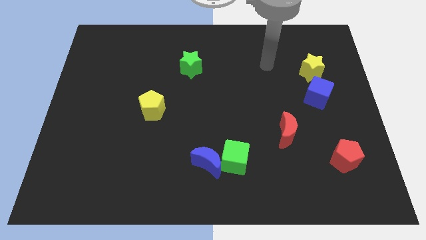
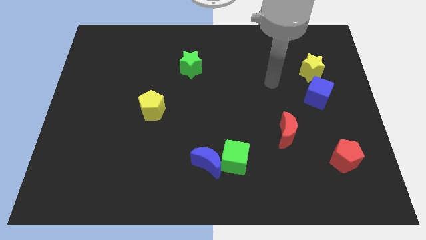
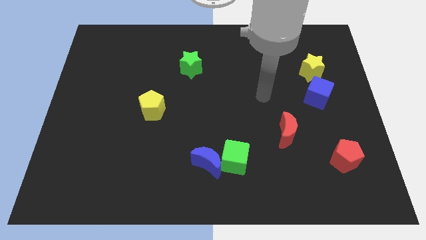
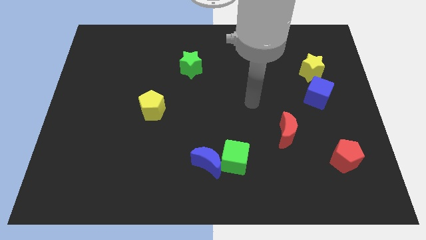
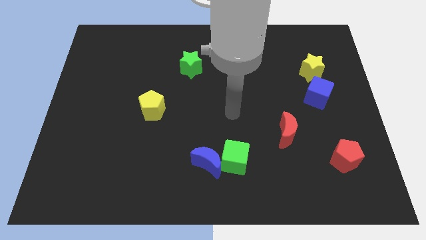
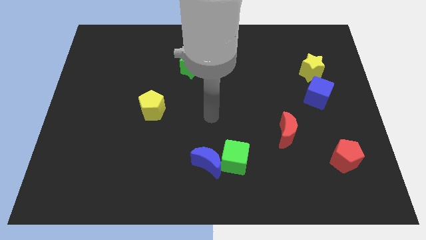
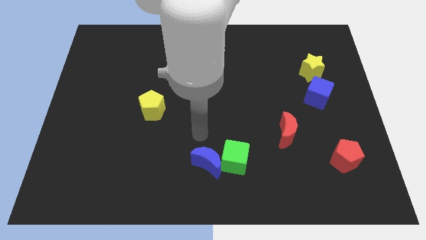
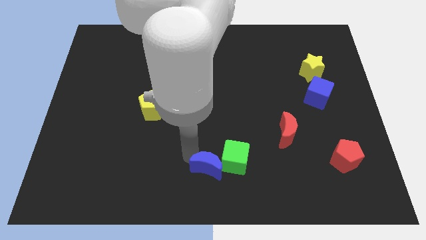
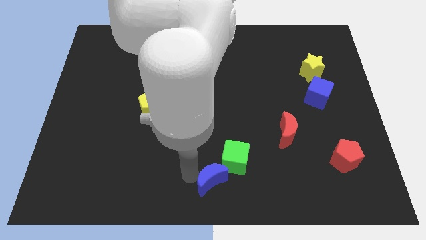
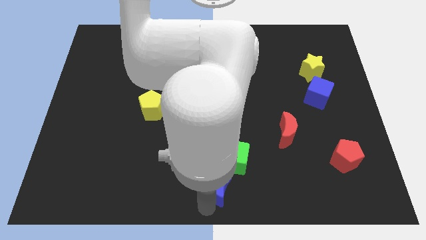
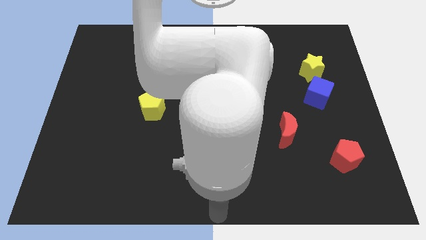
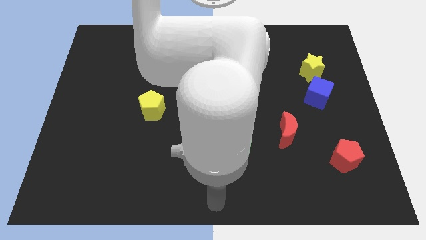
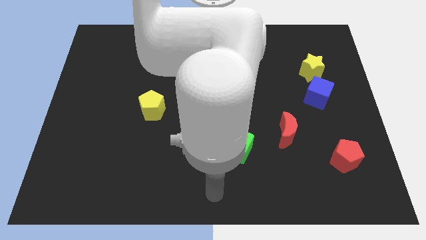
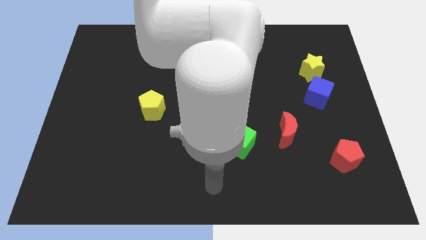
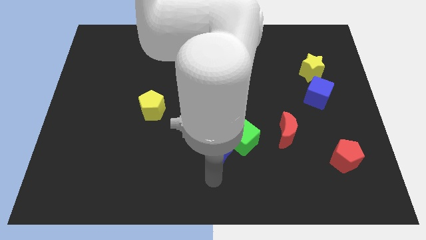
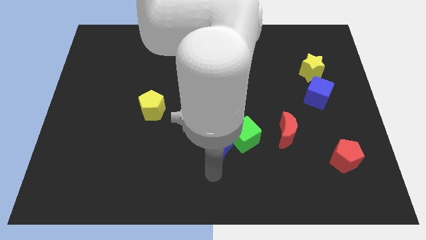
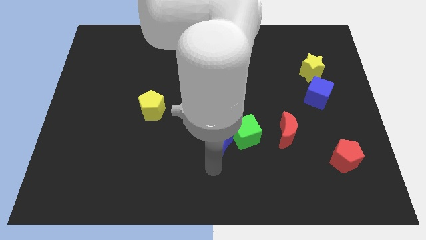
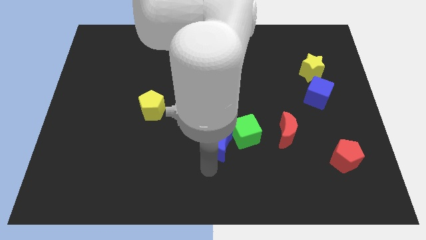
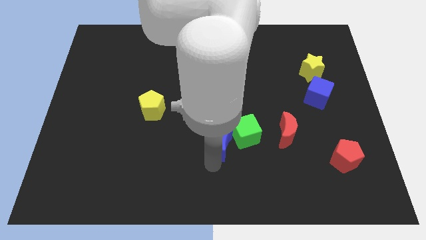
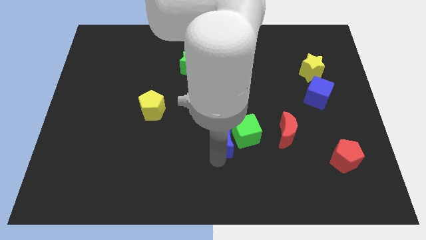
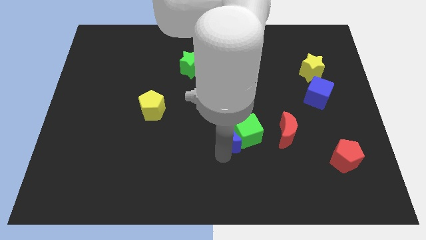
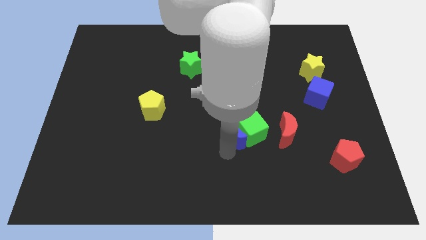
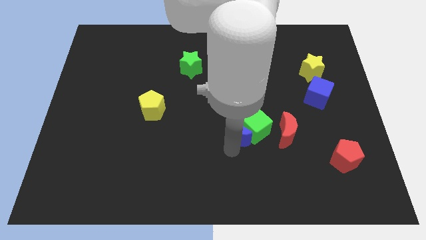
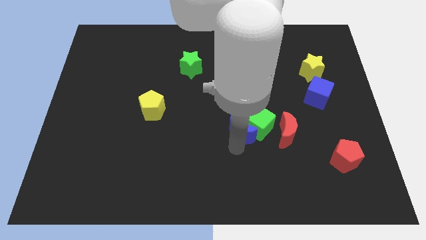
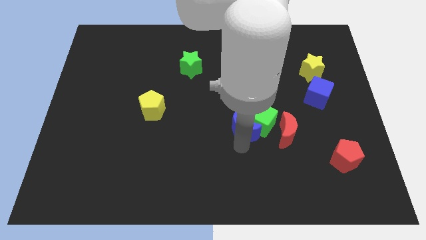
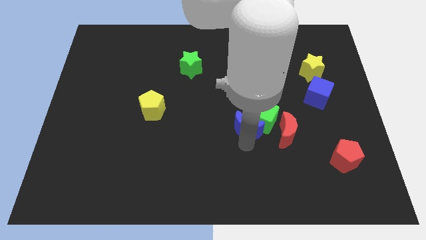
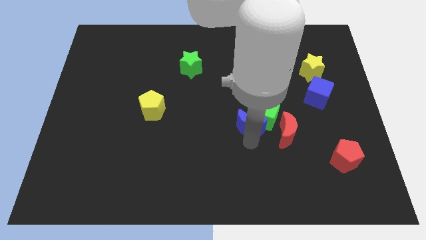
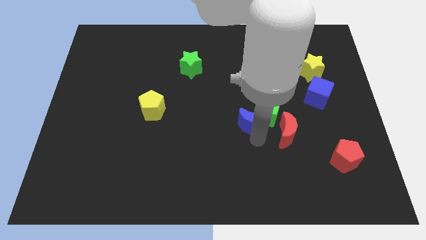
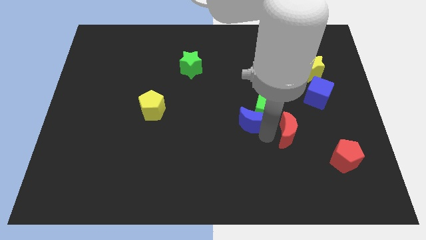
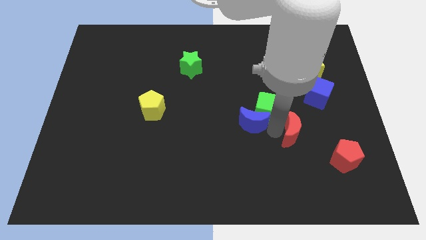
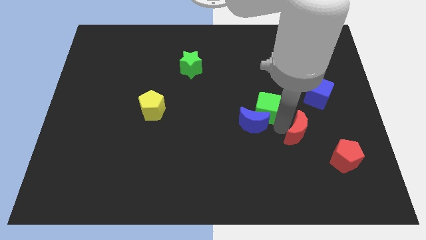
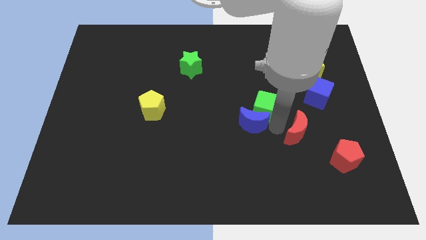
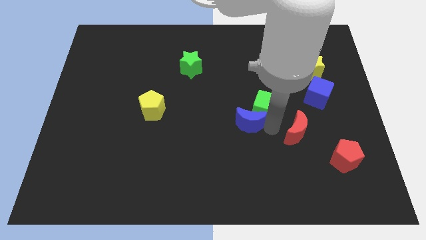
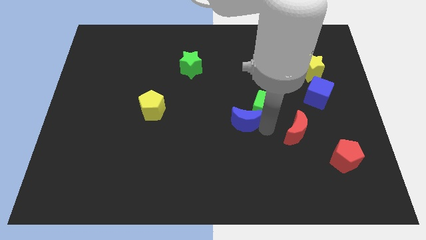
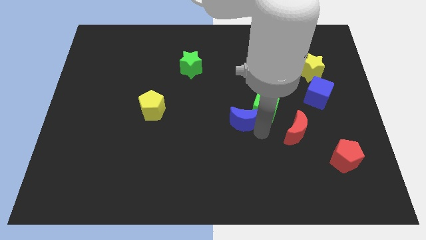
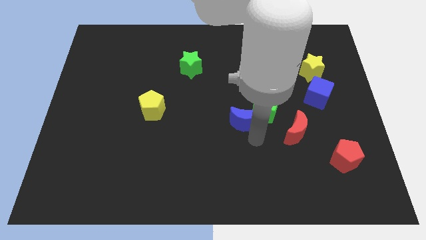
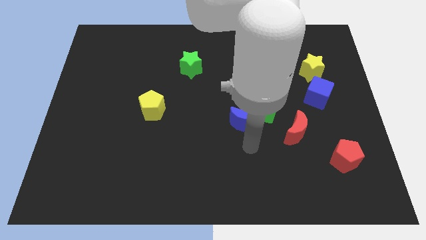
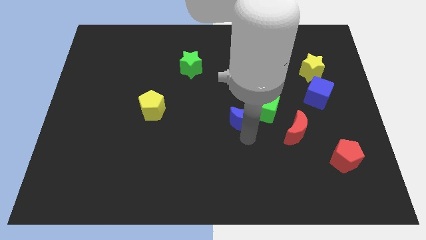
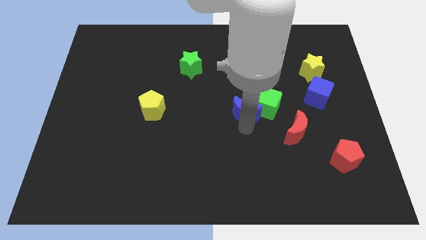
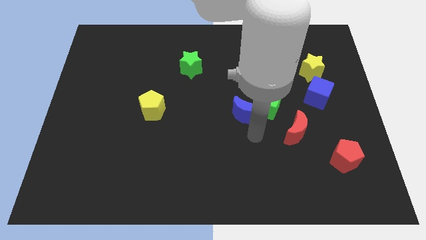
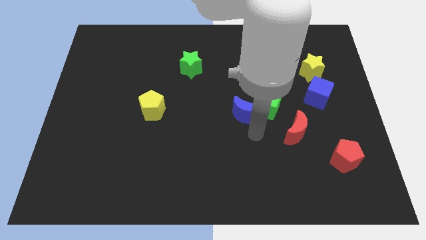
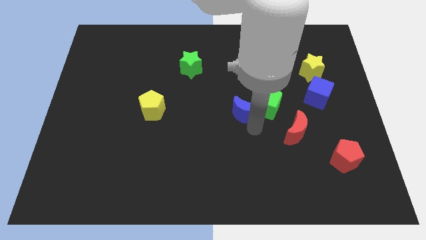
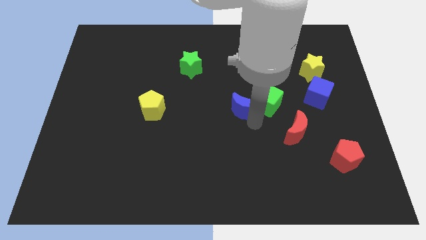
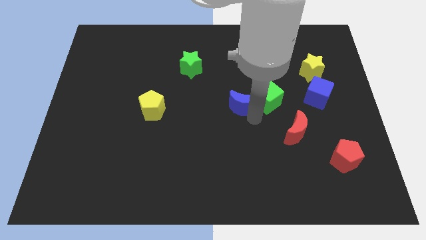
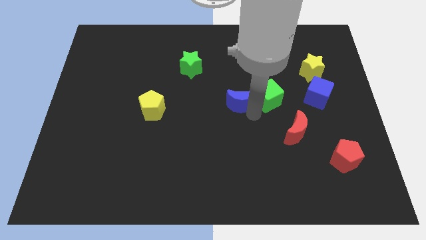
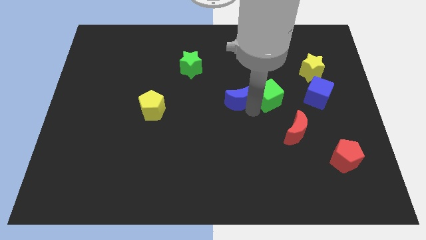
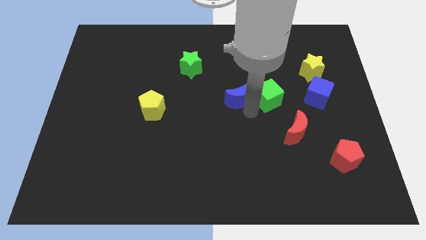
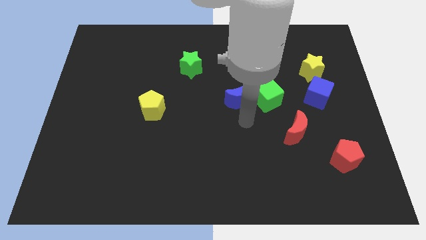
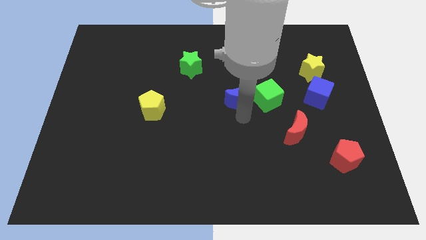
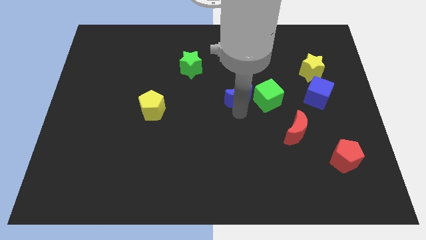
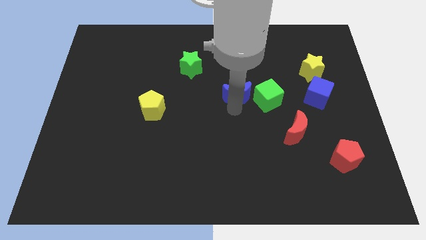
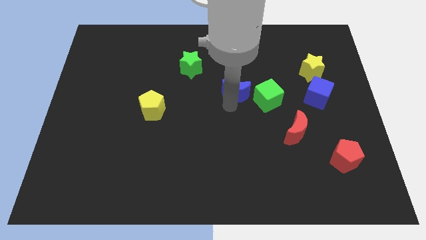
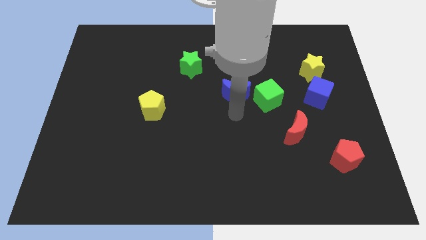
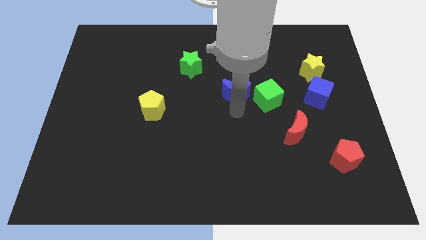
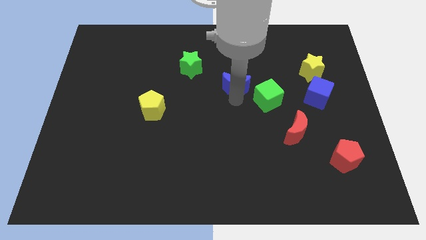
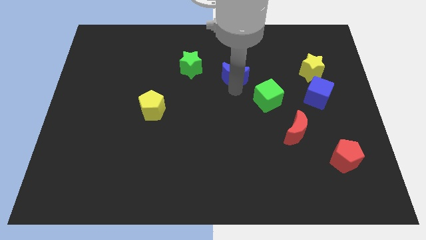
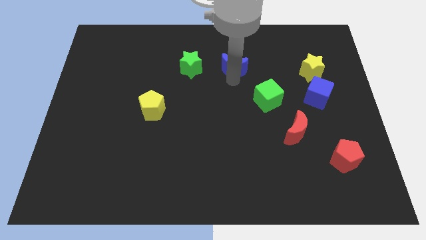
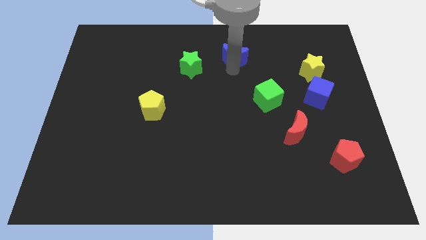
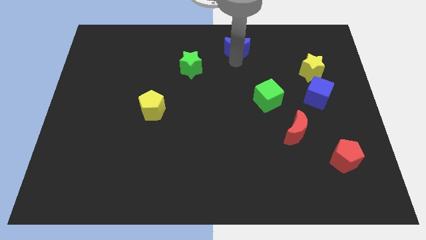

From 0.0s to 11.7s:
slide the blue moon to the top side

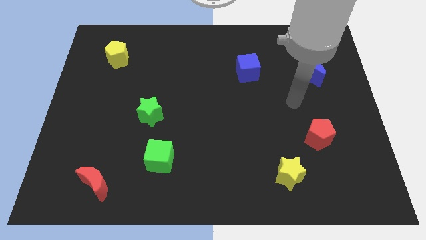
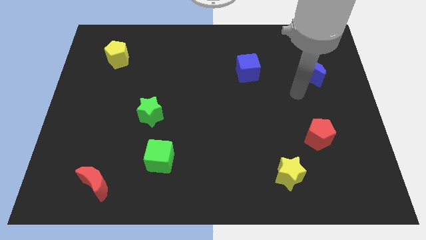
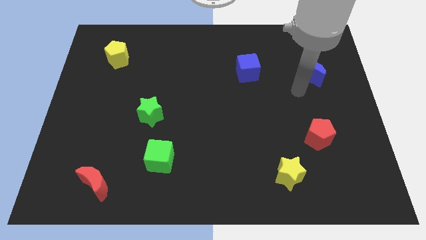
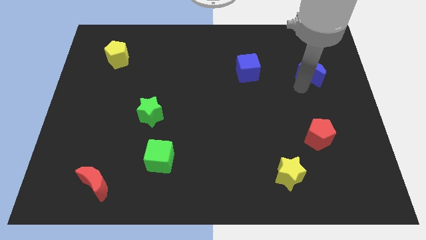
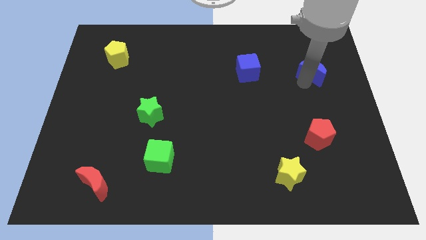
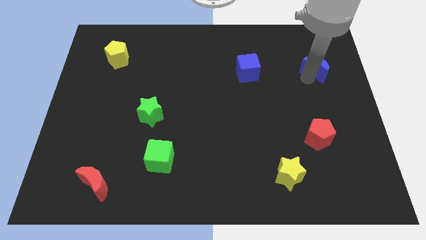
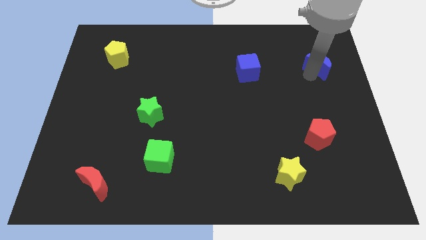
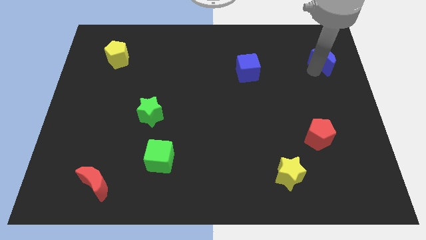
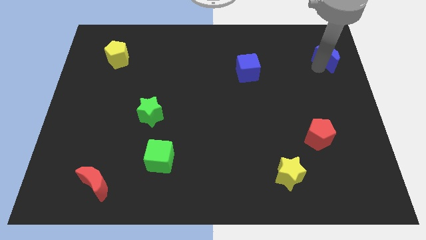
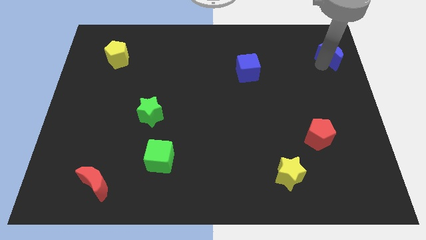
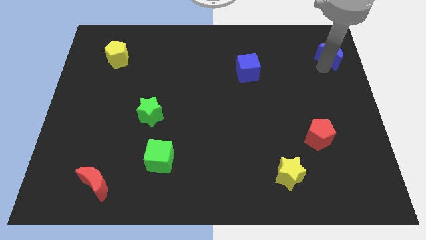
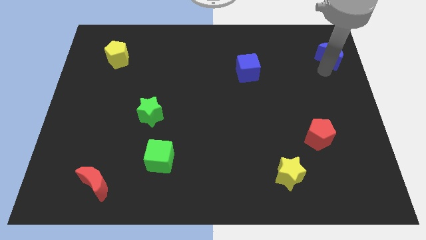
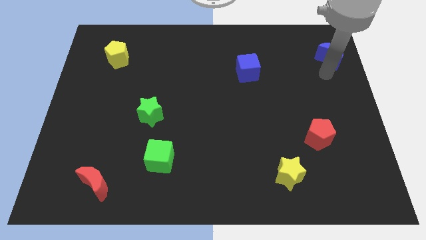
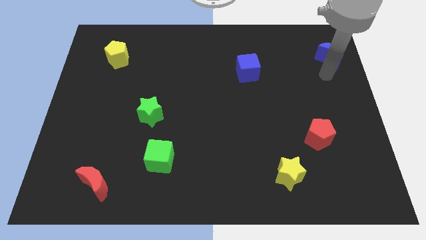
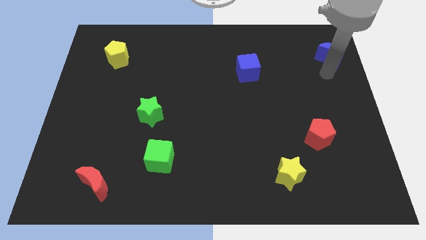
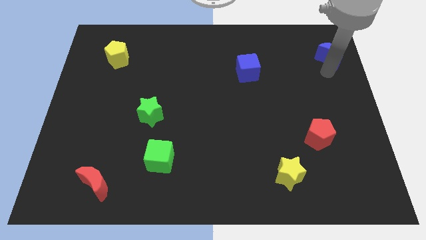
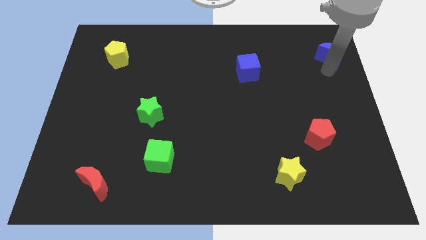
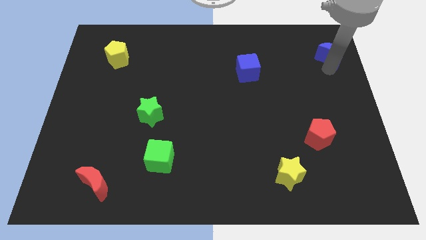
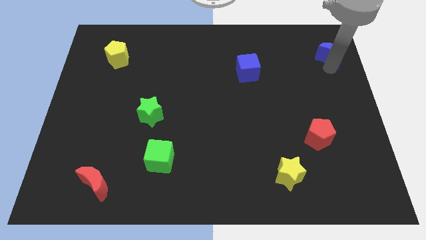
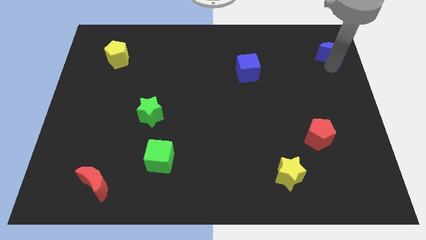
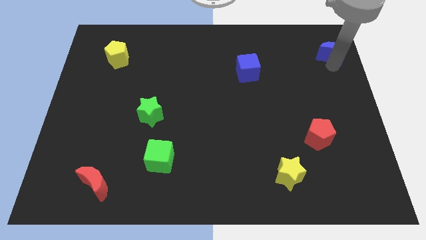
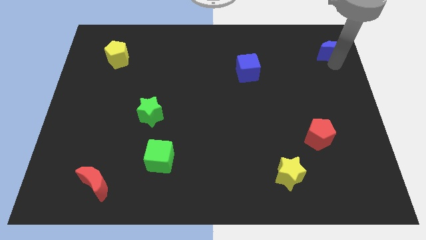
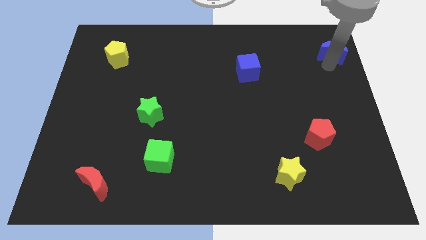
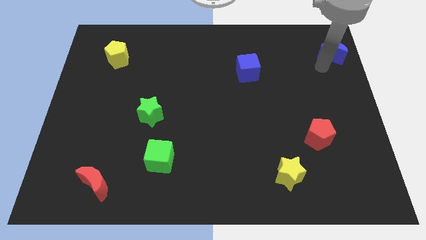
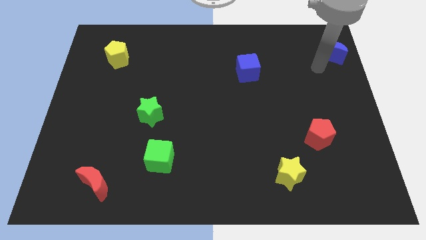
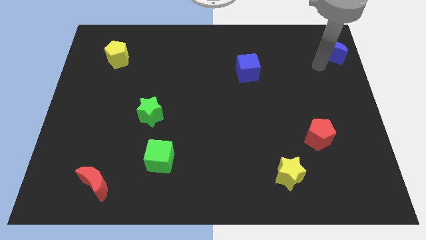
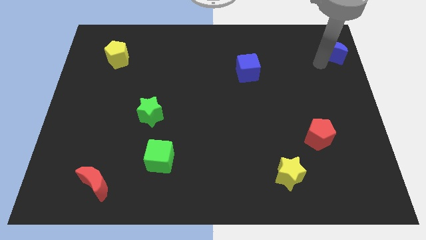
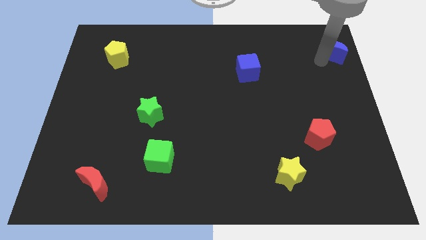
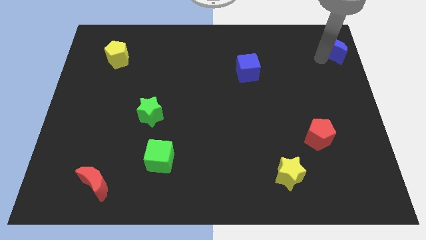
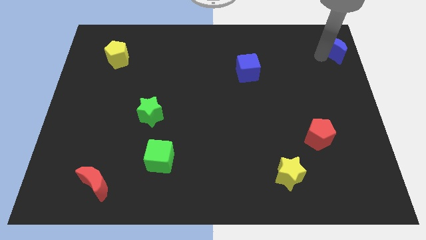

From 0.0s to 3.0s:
move the blue moon to the top right
